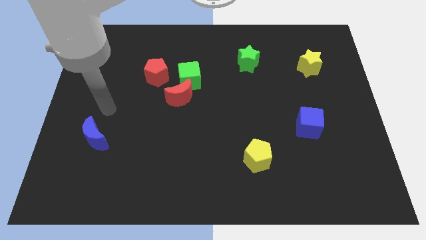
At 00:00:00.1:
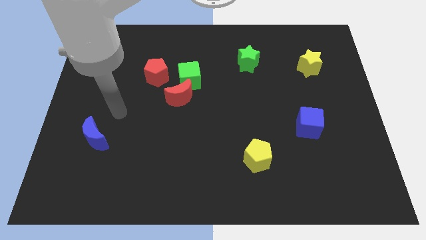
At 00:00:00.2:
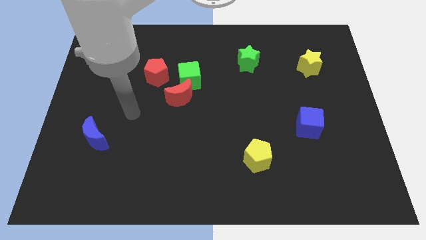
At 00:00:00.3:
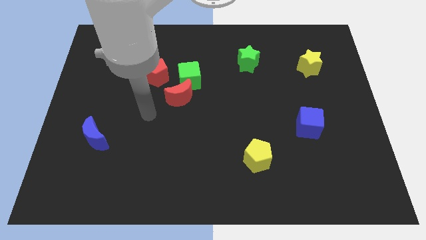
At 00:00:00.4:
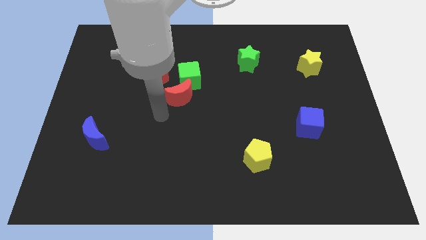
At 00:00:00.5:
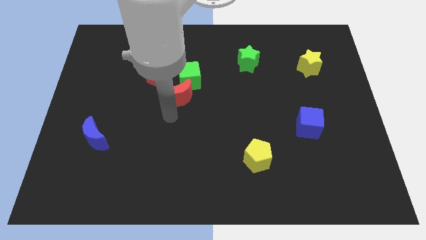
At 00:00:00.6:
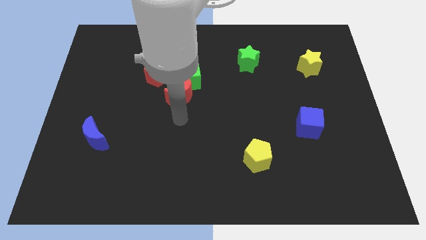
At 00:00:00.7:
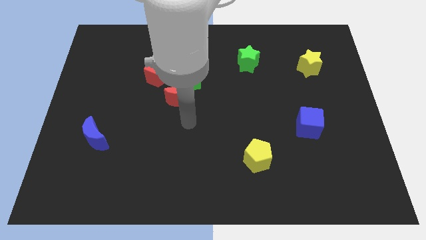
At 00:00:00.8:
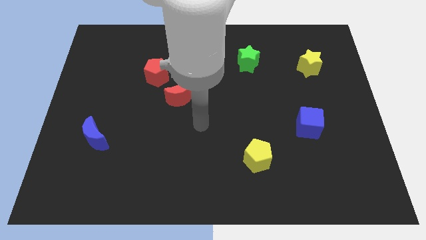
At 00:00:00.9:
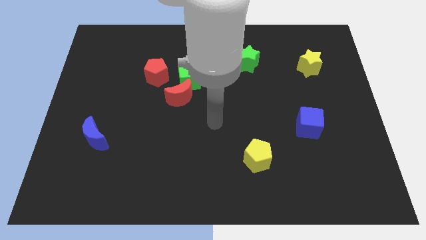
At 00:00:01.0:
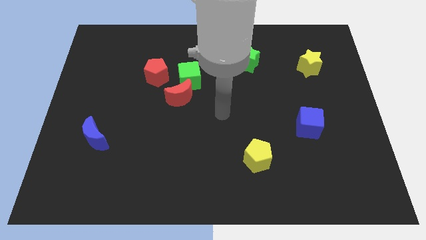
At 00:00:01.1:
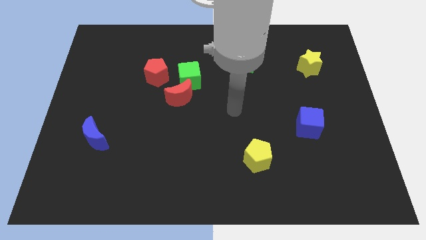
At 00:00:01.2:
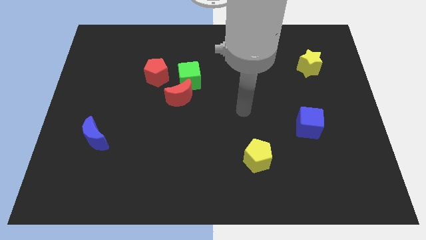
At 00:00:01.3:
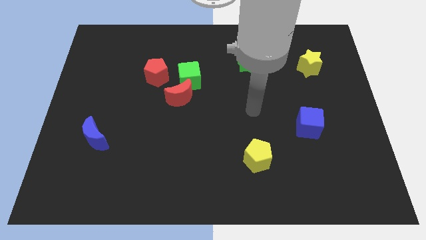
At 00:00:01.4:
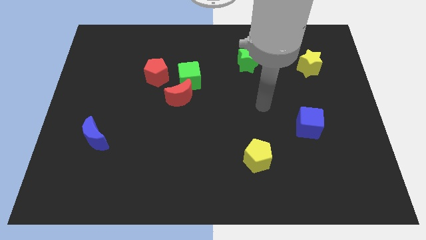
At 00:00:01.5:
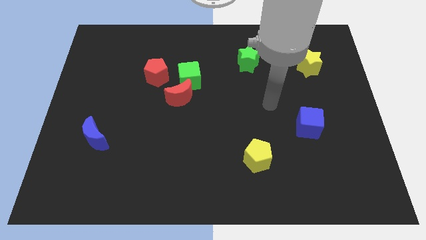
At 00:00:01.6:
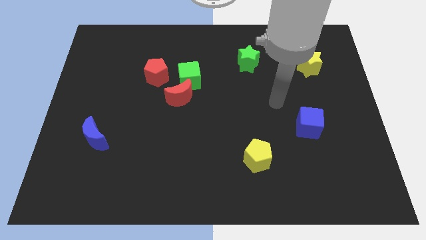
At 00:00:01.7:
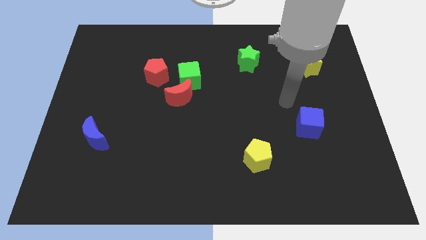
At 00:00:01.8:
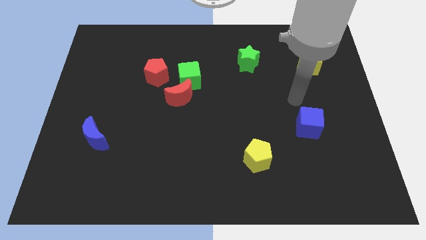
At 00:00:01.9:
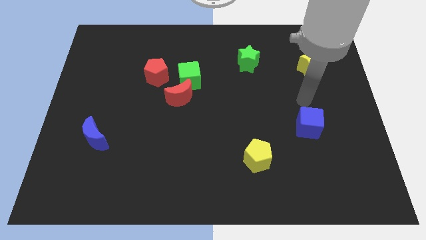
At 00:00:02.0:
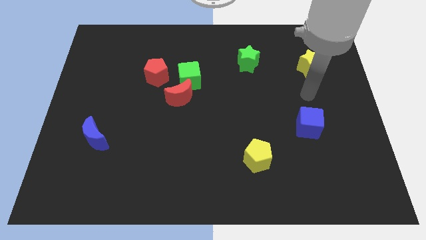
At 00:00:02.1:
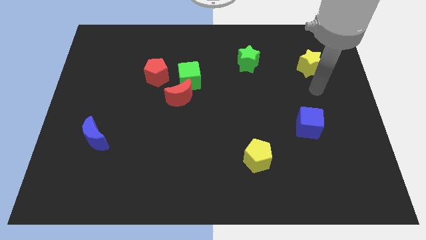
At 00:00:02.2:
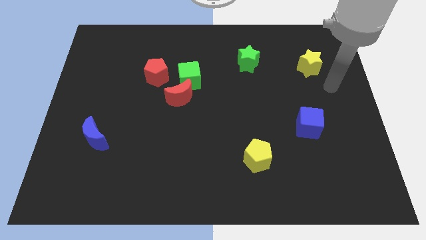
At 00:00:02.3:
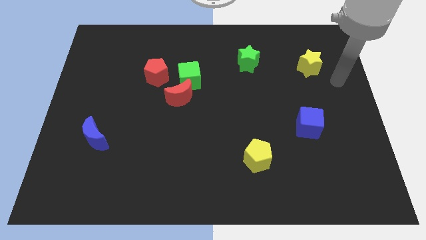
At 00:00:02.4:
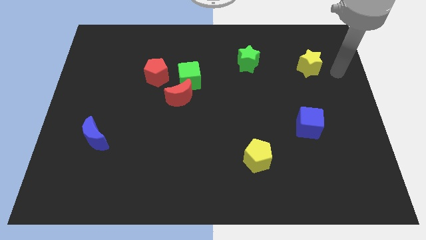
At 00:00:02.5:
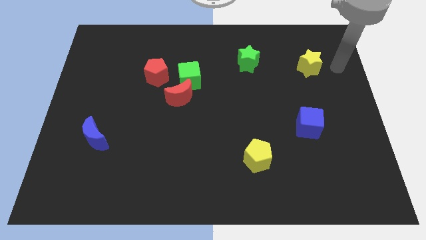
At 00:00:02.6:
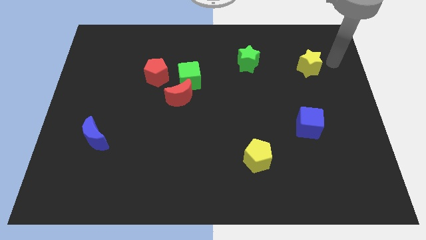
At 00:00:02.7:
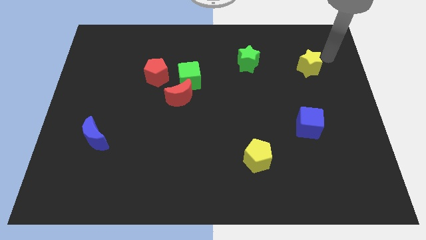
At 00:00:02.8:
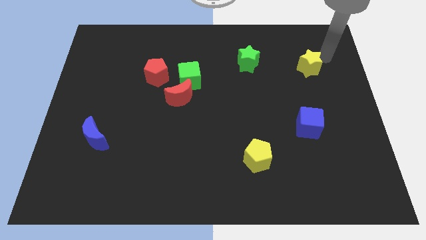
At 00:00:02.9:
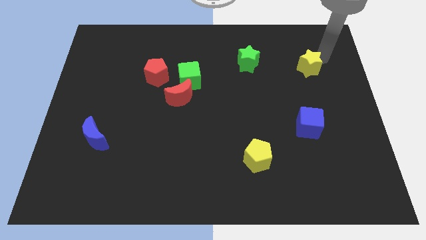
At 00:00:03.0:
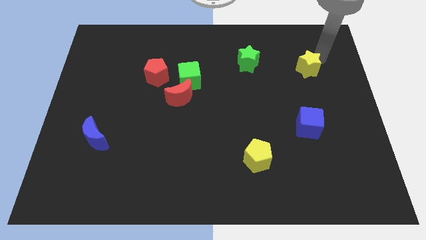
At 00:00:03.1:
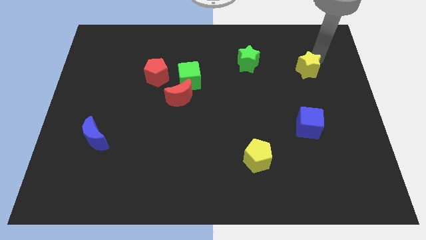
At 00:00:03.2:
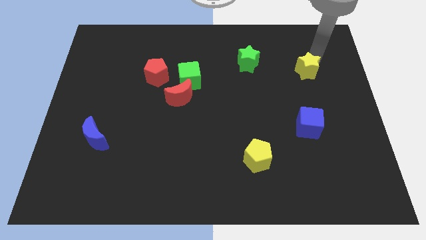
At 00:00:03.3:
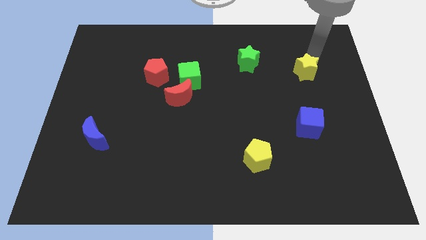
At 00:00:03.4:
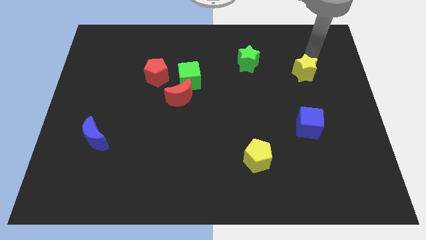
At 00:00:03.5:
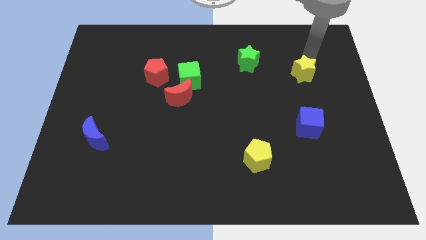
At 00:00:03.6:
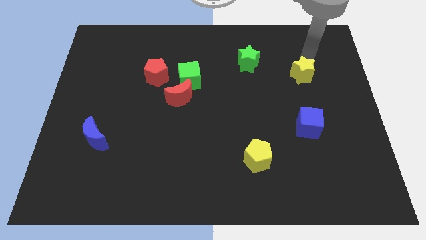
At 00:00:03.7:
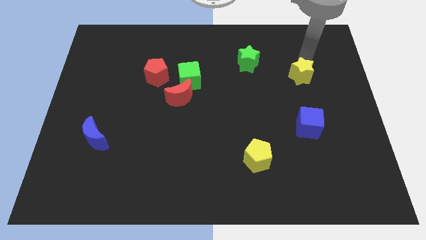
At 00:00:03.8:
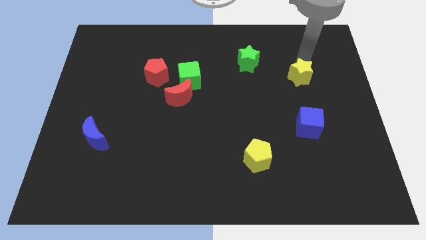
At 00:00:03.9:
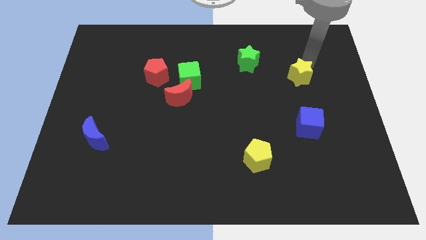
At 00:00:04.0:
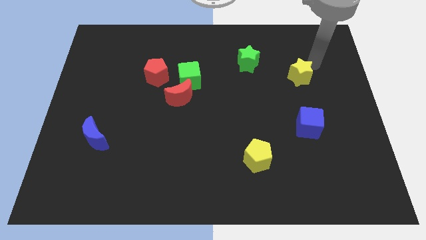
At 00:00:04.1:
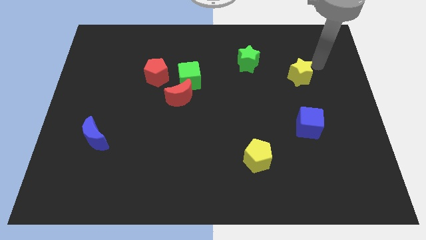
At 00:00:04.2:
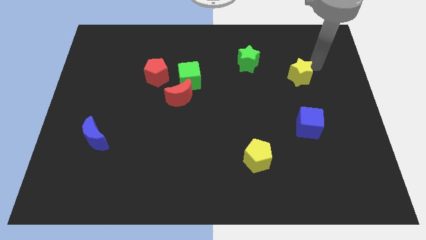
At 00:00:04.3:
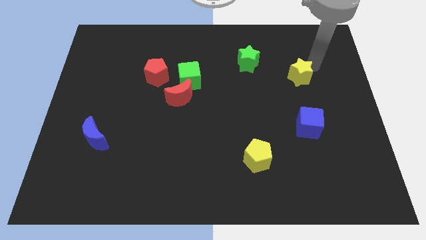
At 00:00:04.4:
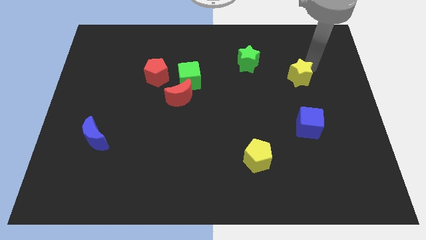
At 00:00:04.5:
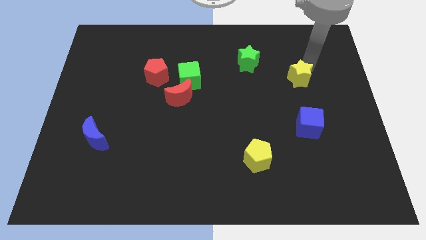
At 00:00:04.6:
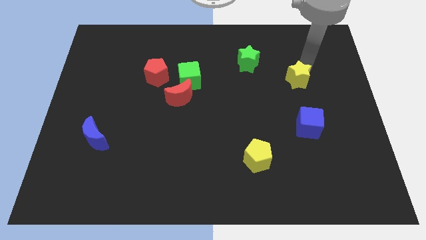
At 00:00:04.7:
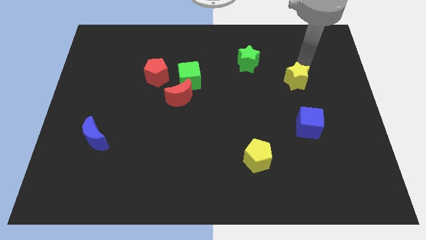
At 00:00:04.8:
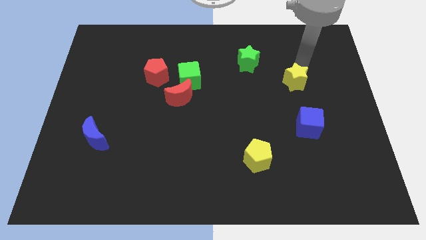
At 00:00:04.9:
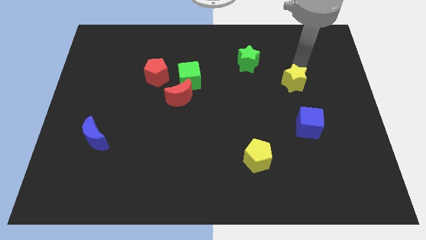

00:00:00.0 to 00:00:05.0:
slightly move the yellow star downwards and then left

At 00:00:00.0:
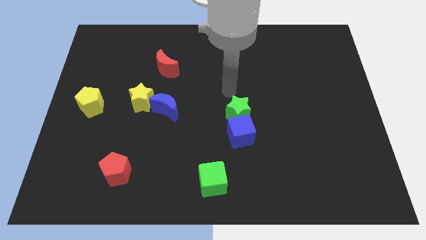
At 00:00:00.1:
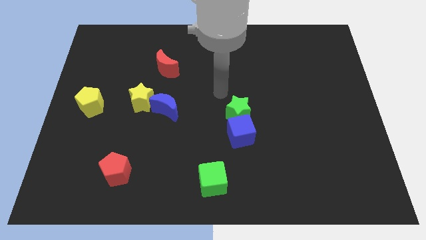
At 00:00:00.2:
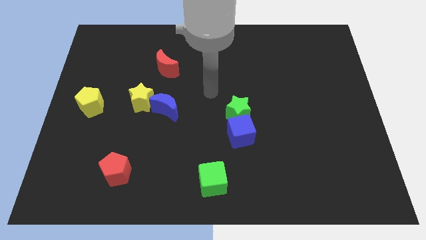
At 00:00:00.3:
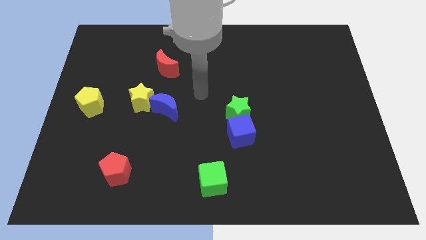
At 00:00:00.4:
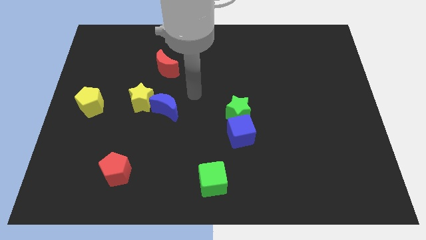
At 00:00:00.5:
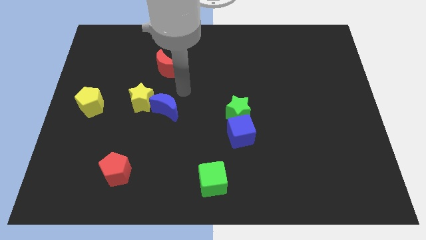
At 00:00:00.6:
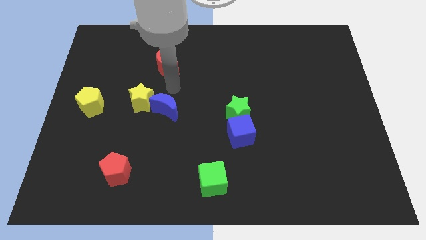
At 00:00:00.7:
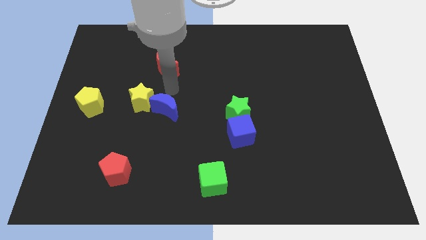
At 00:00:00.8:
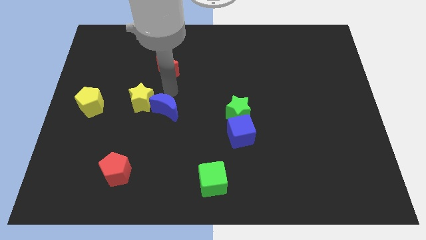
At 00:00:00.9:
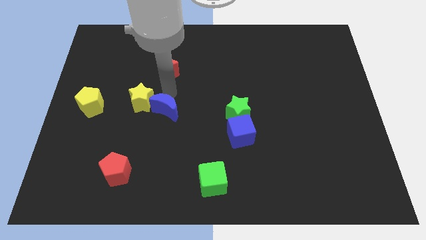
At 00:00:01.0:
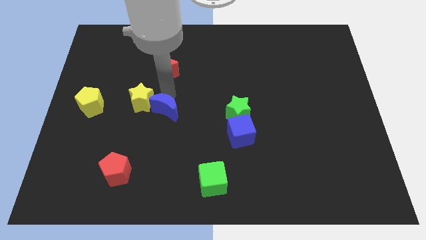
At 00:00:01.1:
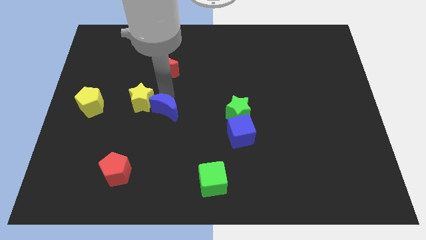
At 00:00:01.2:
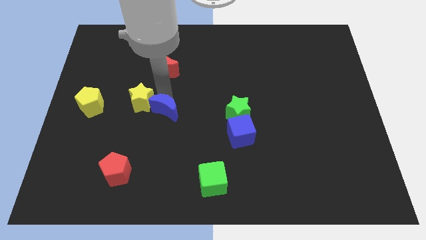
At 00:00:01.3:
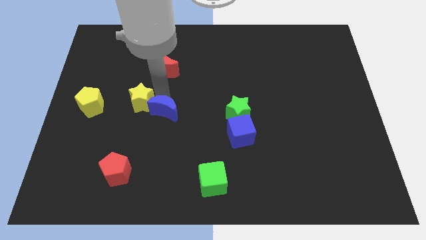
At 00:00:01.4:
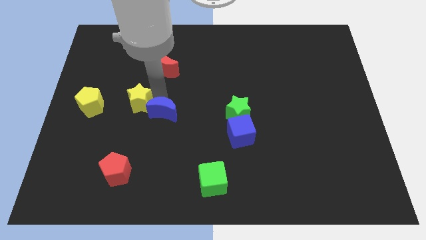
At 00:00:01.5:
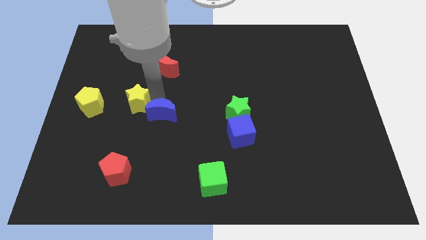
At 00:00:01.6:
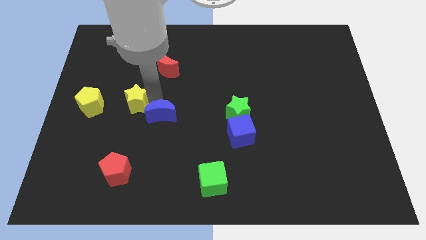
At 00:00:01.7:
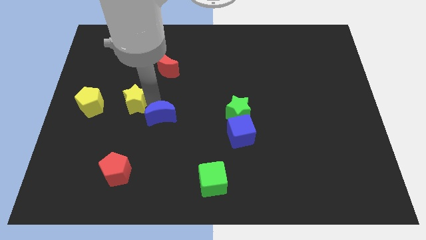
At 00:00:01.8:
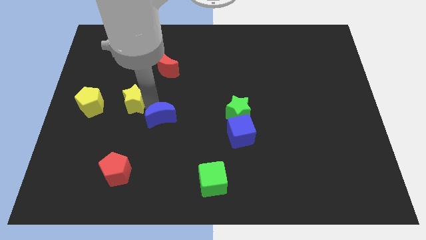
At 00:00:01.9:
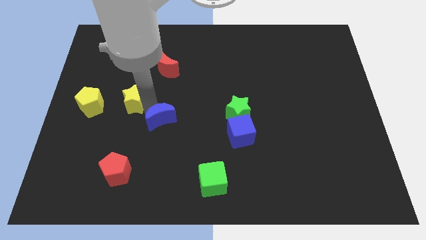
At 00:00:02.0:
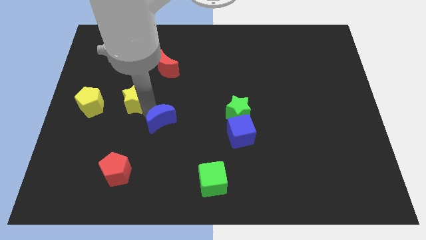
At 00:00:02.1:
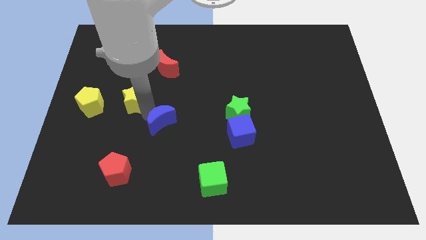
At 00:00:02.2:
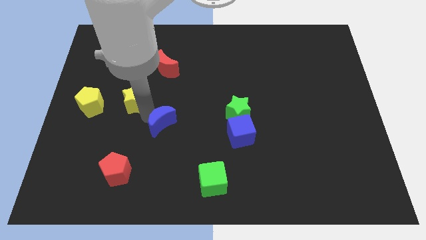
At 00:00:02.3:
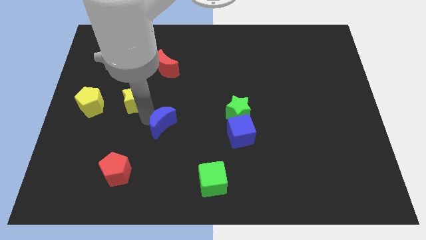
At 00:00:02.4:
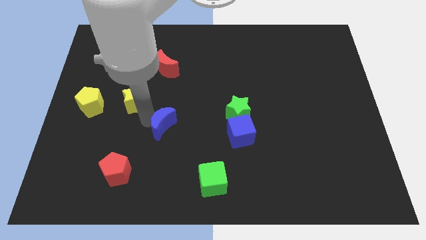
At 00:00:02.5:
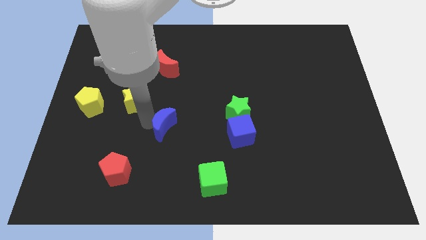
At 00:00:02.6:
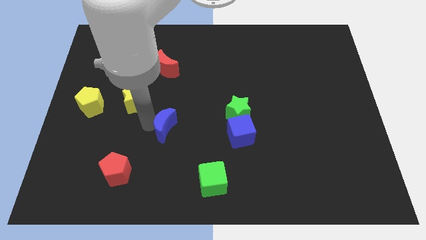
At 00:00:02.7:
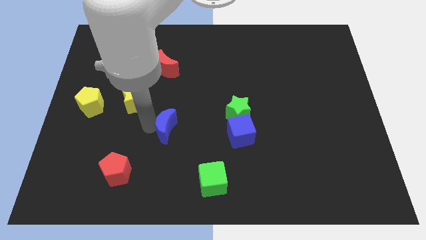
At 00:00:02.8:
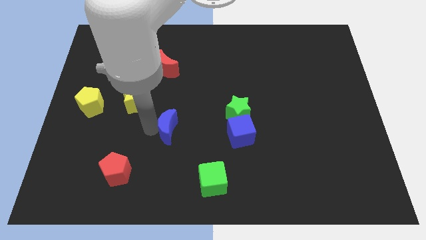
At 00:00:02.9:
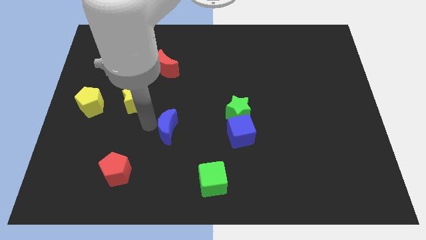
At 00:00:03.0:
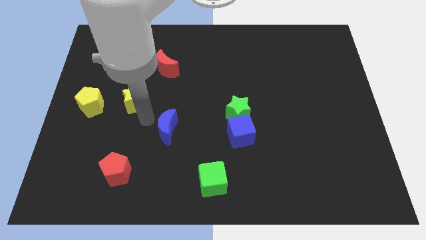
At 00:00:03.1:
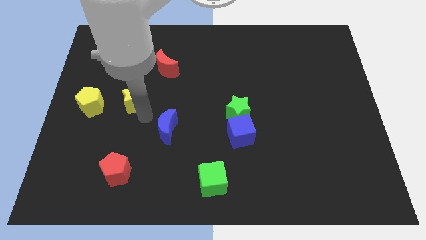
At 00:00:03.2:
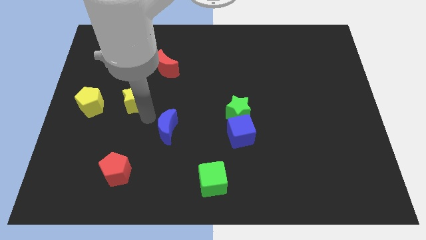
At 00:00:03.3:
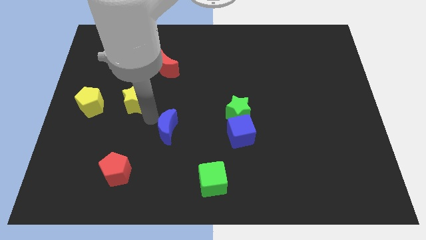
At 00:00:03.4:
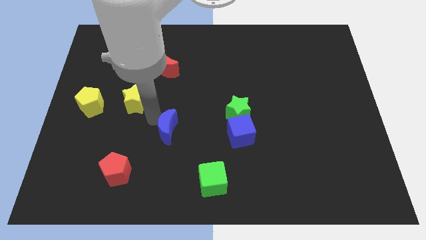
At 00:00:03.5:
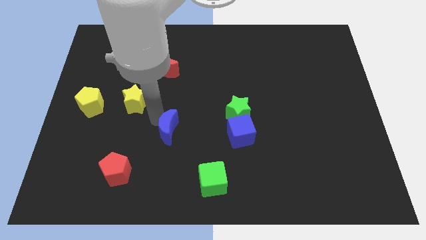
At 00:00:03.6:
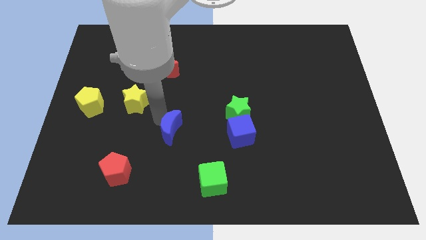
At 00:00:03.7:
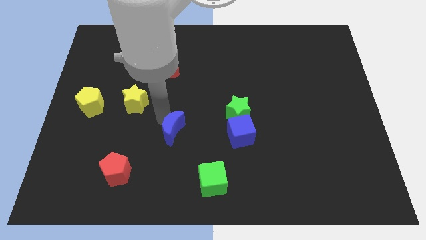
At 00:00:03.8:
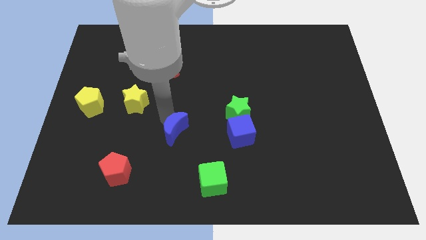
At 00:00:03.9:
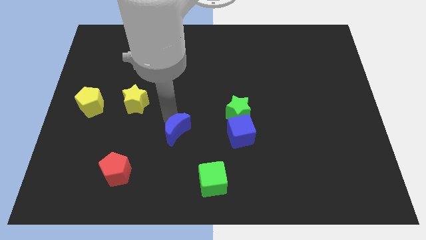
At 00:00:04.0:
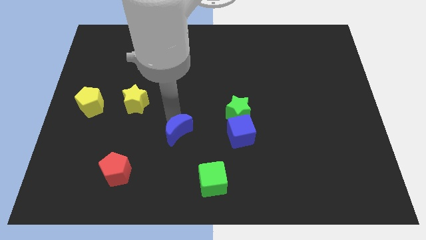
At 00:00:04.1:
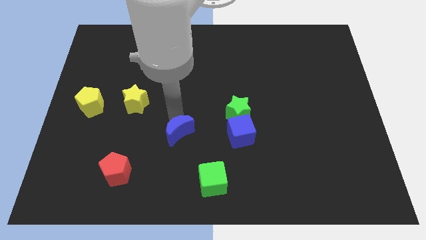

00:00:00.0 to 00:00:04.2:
slide the blue moon downwards and right diagonally a little bit
